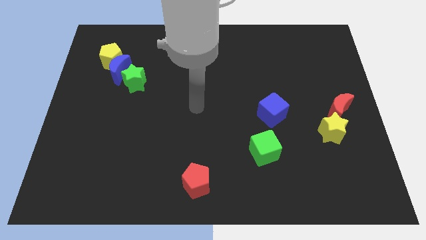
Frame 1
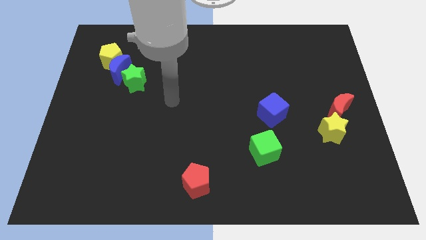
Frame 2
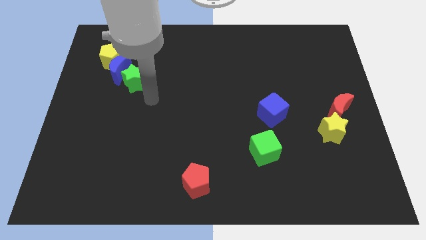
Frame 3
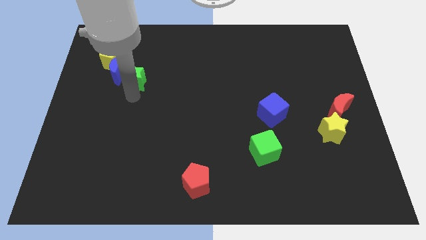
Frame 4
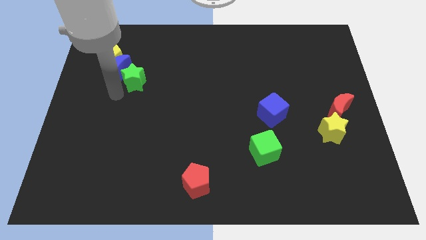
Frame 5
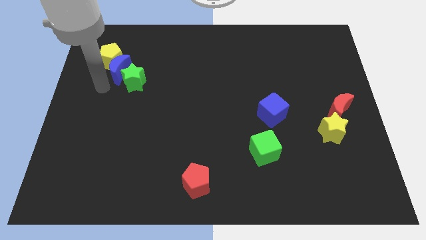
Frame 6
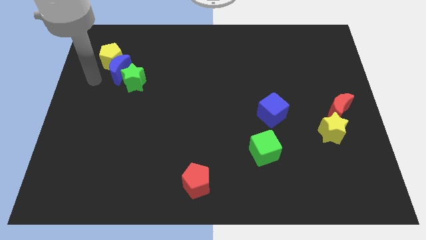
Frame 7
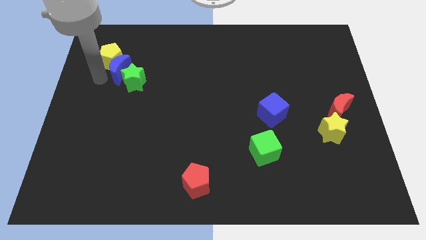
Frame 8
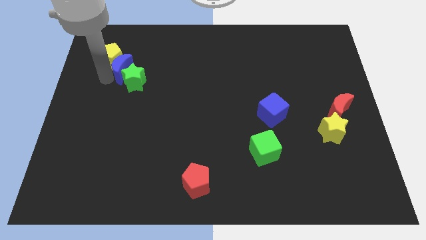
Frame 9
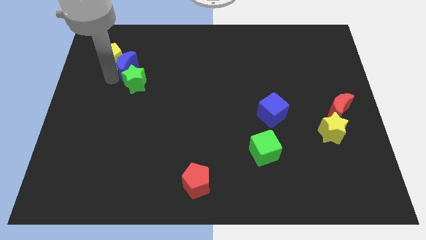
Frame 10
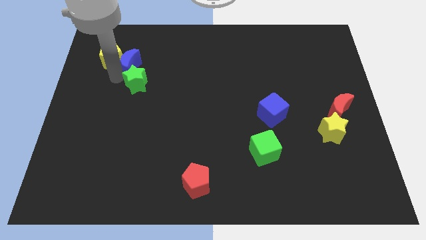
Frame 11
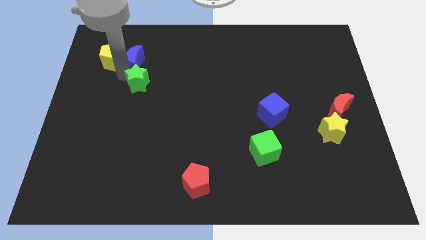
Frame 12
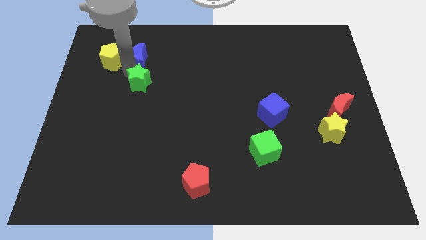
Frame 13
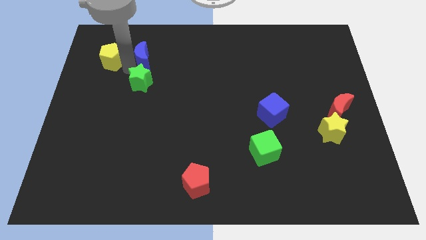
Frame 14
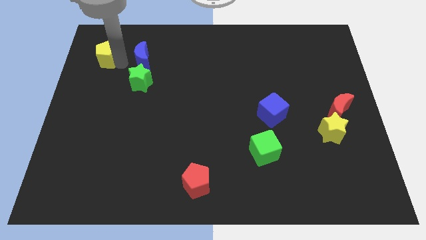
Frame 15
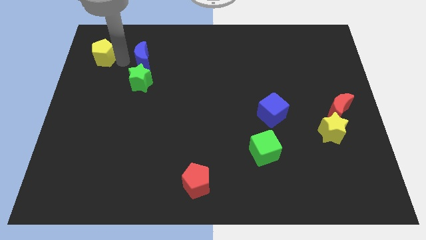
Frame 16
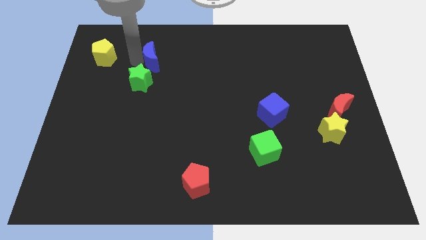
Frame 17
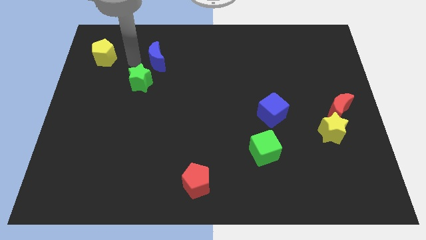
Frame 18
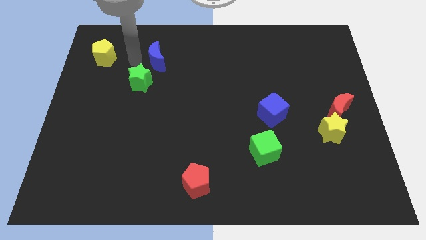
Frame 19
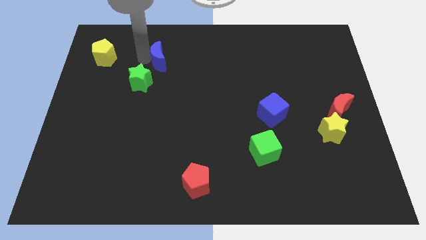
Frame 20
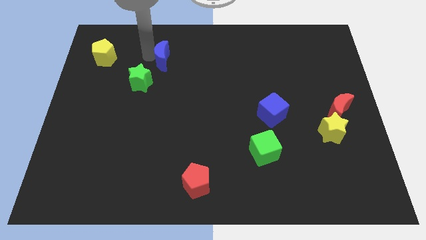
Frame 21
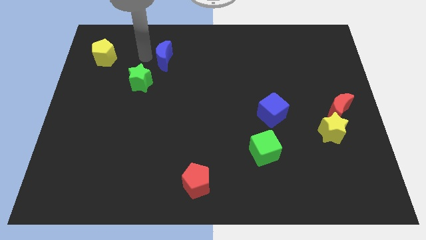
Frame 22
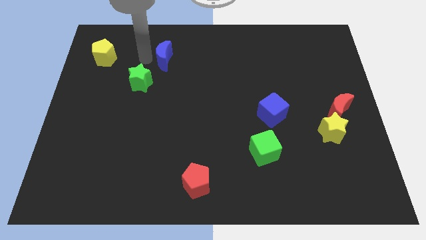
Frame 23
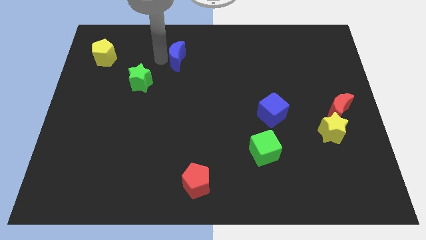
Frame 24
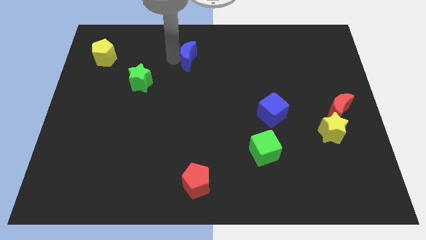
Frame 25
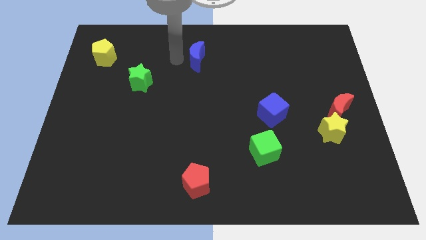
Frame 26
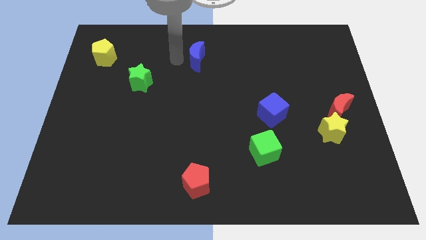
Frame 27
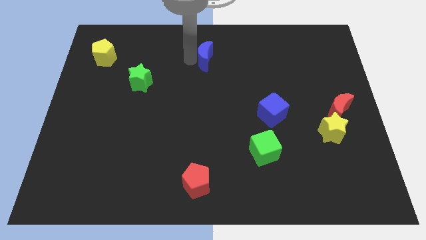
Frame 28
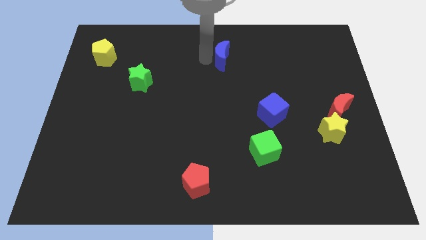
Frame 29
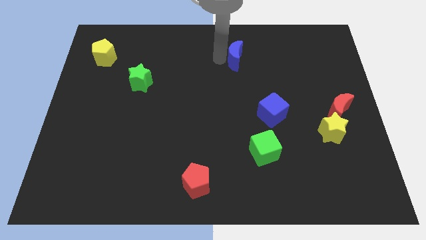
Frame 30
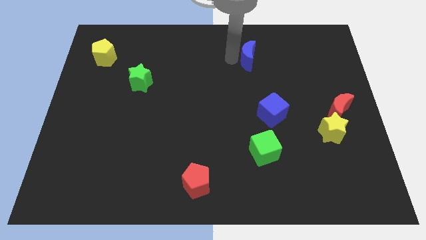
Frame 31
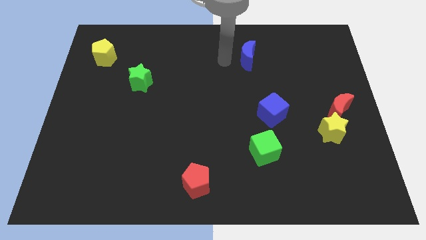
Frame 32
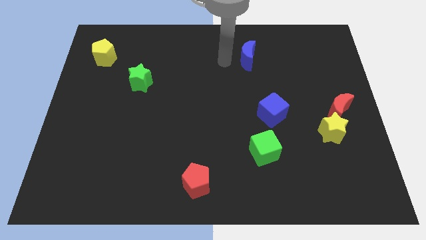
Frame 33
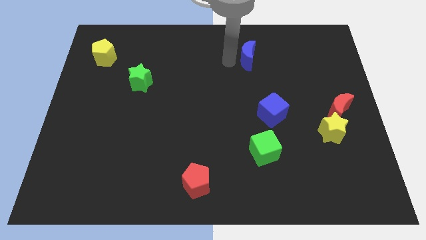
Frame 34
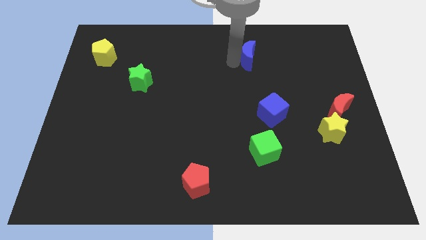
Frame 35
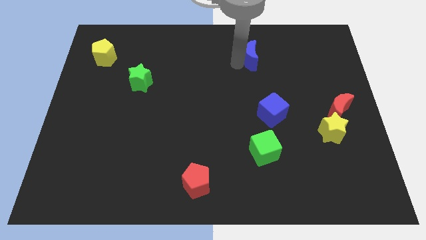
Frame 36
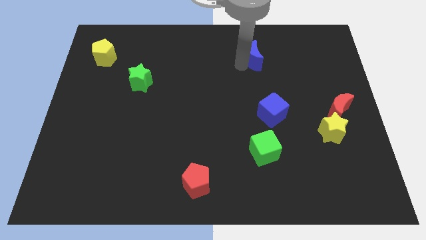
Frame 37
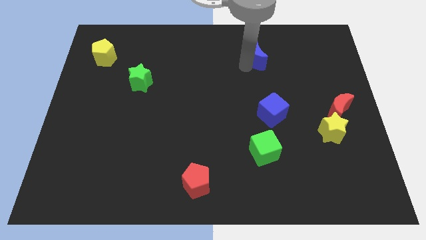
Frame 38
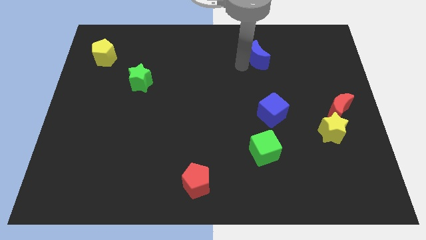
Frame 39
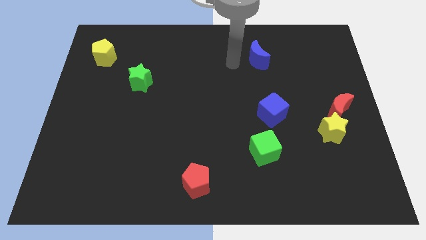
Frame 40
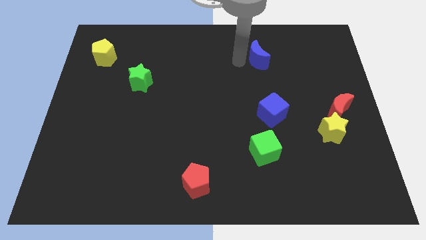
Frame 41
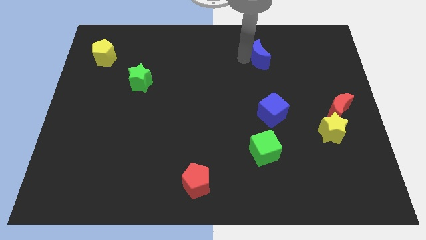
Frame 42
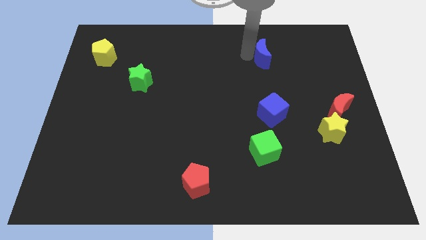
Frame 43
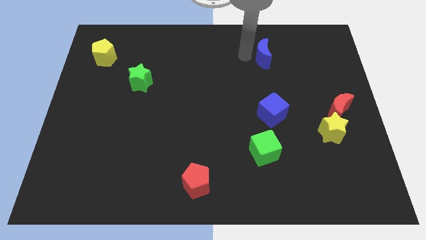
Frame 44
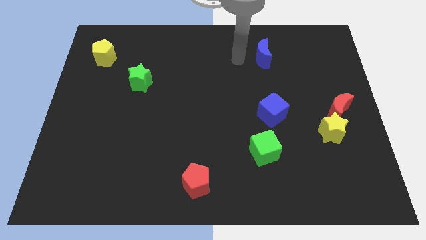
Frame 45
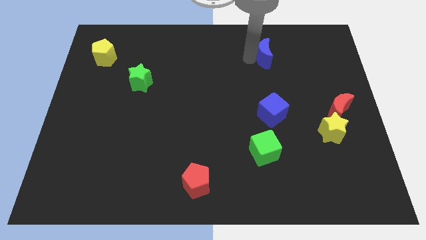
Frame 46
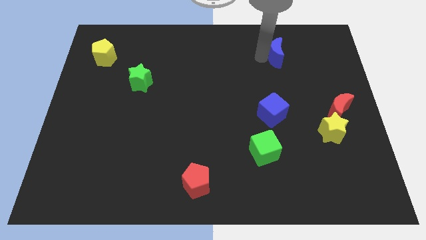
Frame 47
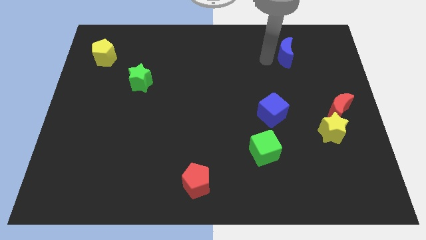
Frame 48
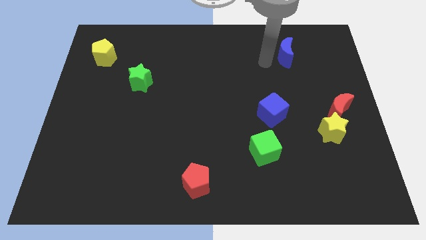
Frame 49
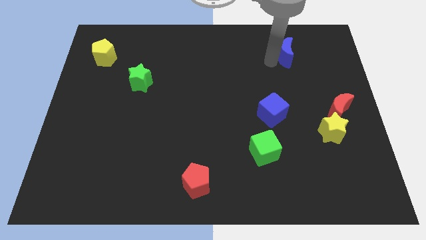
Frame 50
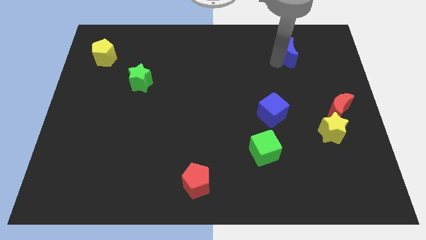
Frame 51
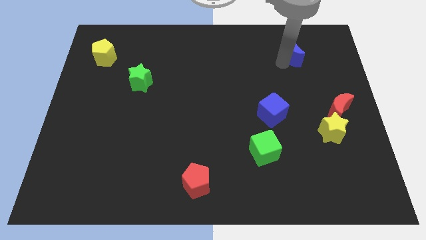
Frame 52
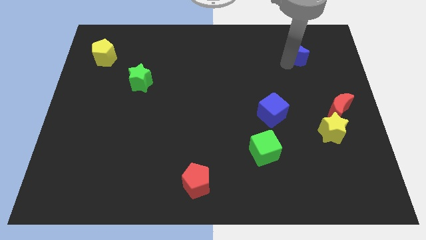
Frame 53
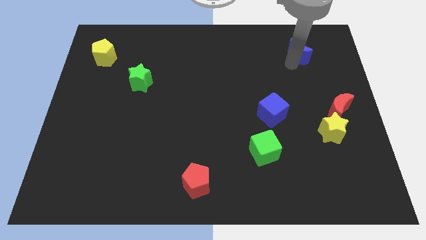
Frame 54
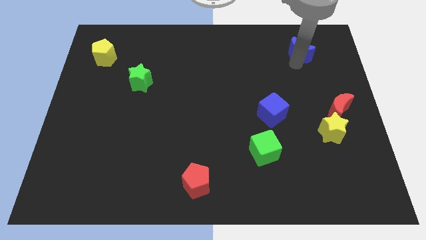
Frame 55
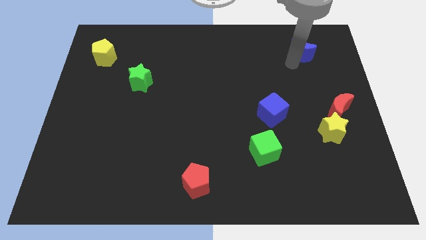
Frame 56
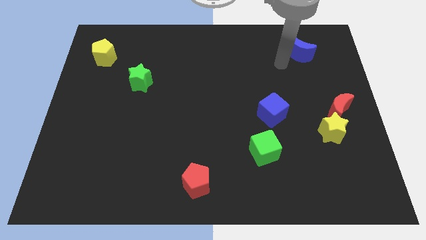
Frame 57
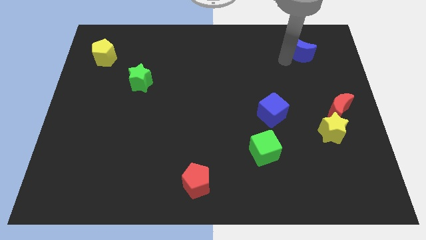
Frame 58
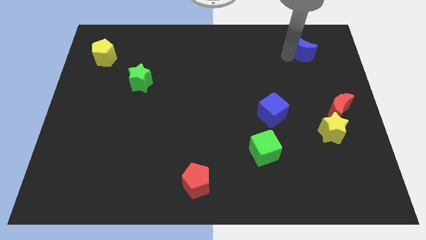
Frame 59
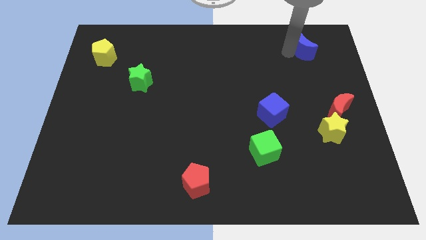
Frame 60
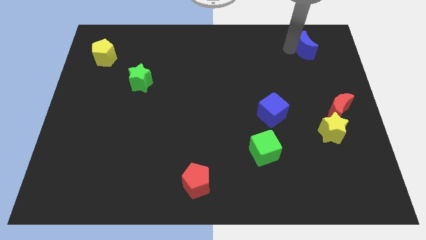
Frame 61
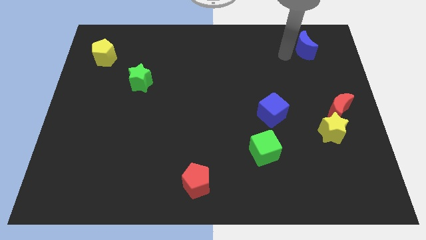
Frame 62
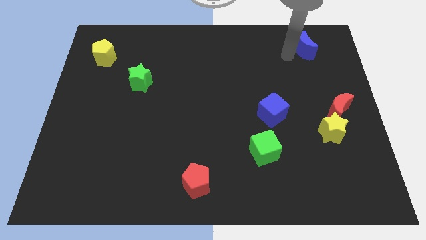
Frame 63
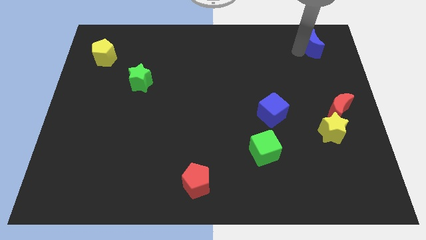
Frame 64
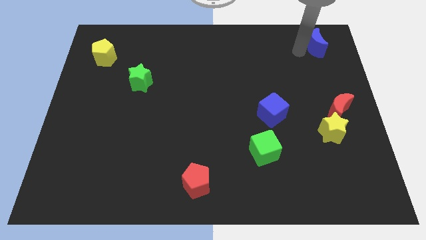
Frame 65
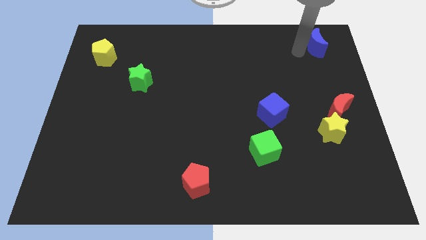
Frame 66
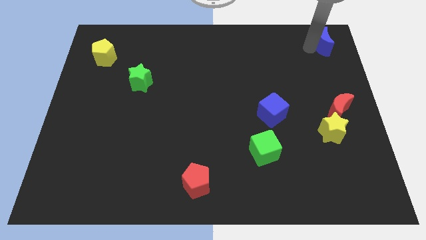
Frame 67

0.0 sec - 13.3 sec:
move the blue moon to the top right of the board
